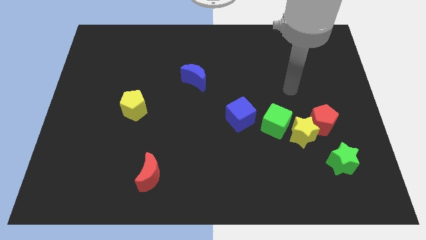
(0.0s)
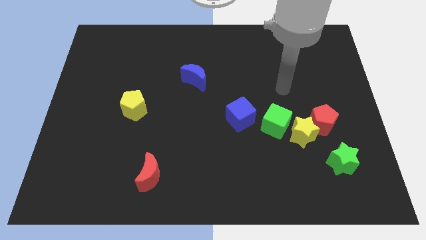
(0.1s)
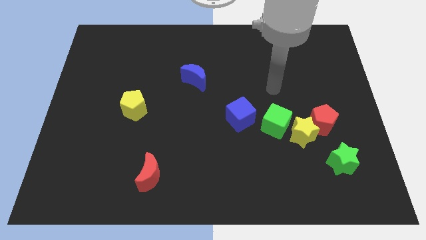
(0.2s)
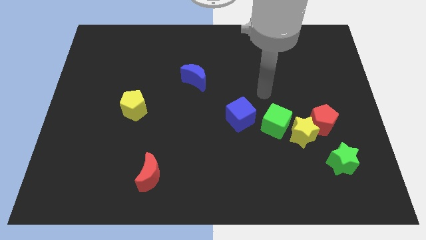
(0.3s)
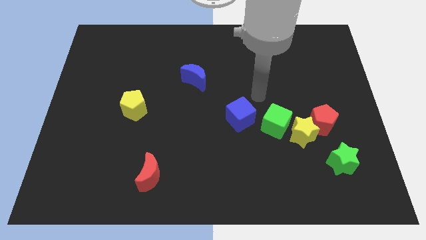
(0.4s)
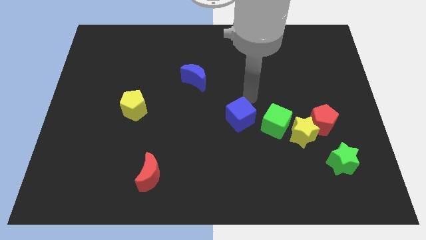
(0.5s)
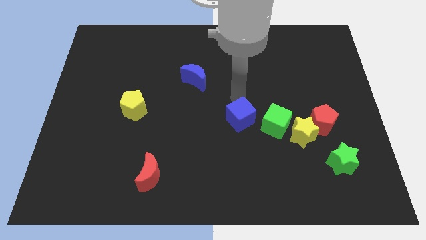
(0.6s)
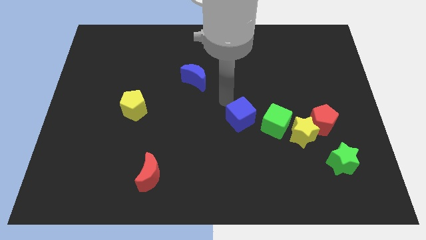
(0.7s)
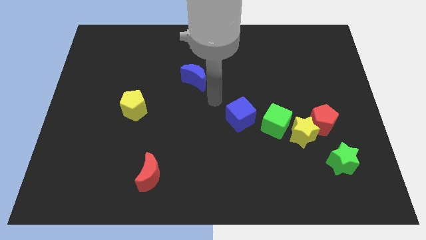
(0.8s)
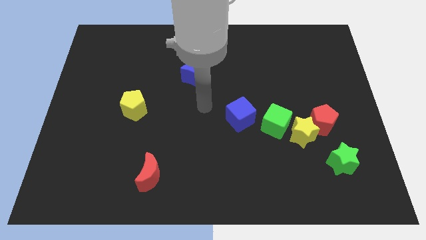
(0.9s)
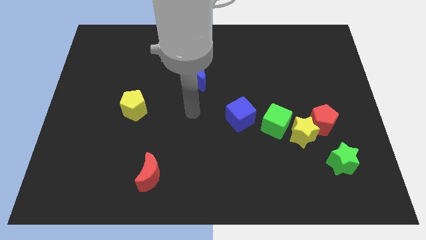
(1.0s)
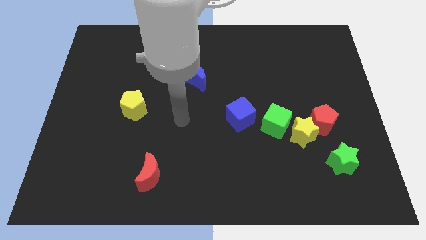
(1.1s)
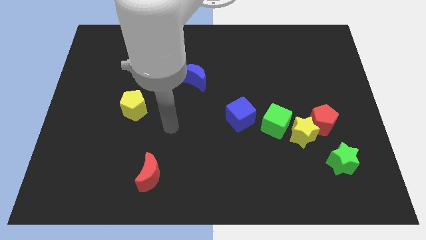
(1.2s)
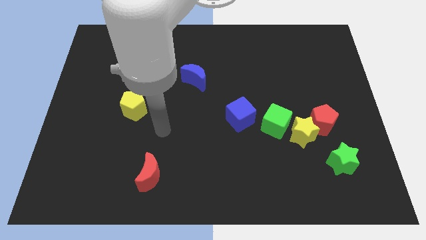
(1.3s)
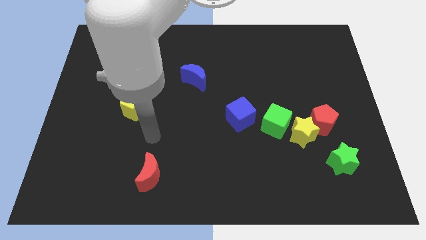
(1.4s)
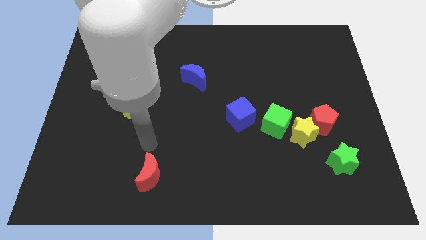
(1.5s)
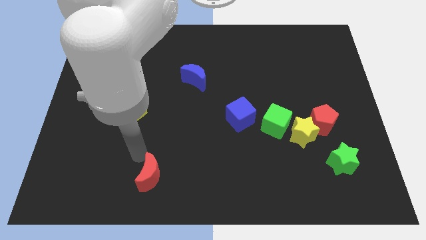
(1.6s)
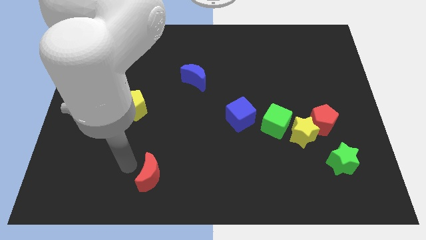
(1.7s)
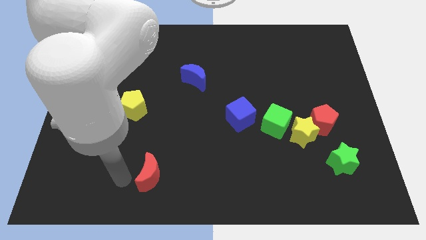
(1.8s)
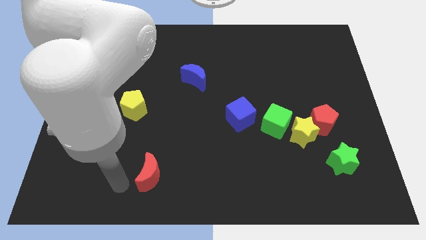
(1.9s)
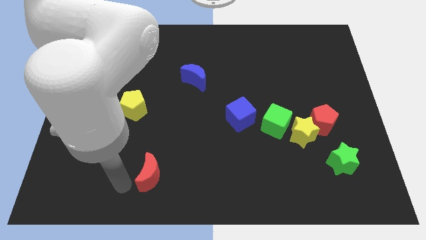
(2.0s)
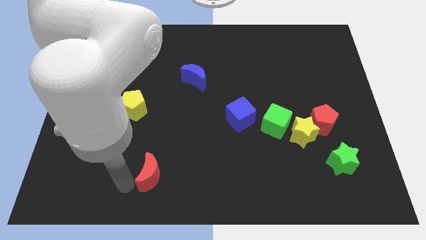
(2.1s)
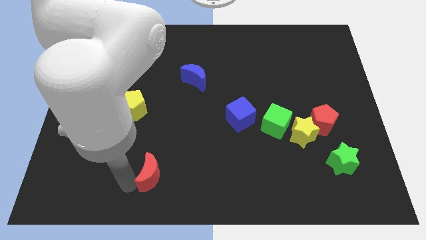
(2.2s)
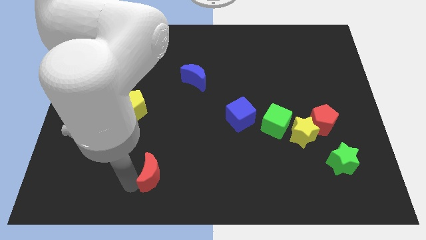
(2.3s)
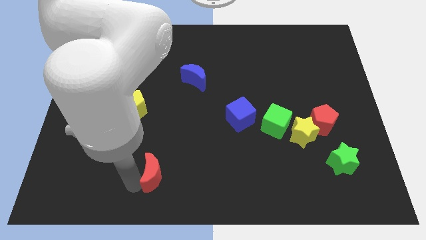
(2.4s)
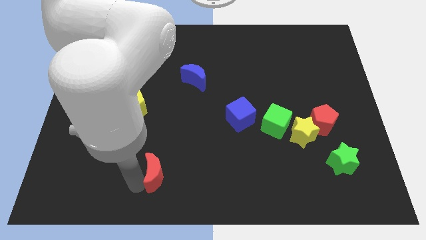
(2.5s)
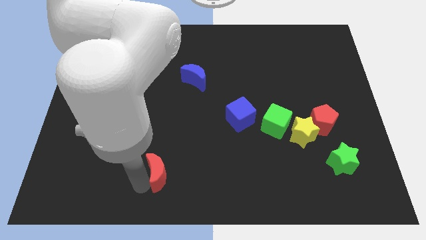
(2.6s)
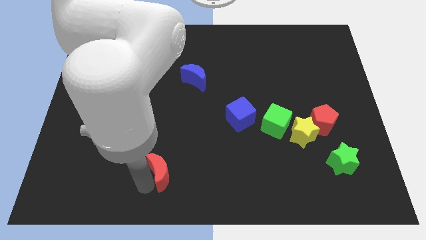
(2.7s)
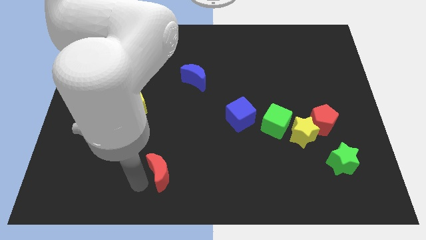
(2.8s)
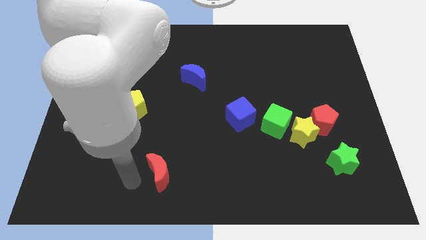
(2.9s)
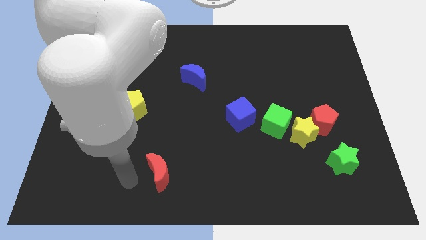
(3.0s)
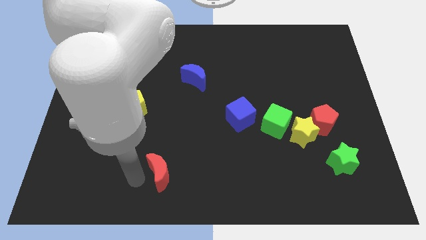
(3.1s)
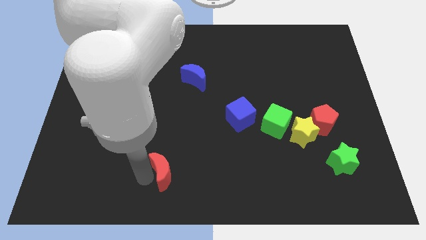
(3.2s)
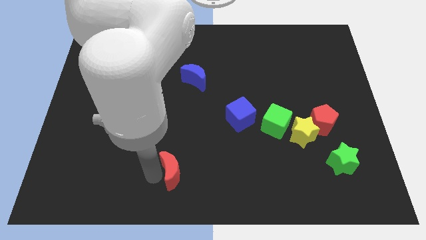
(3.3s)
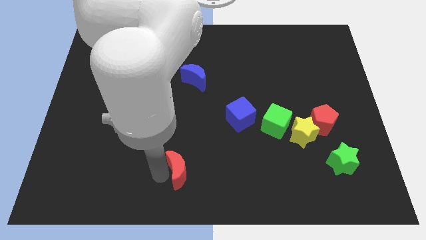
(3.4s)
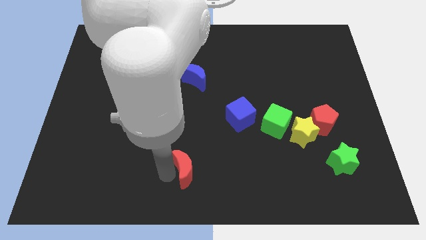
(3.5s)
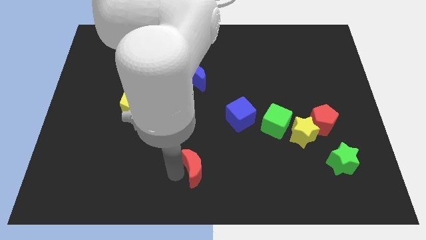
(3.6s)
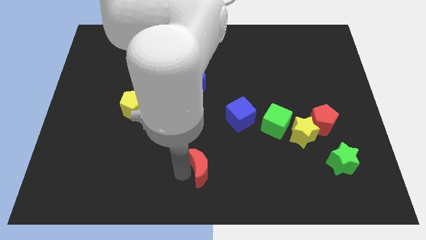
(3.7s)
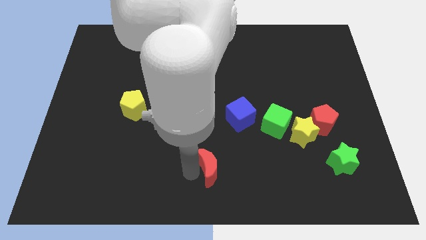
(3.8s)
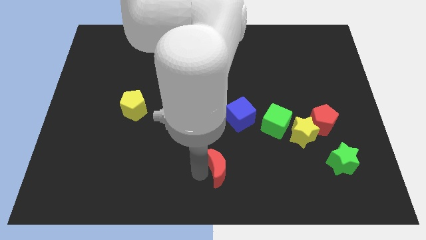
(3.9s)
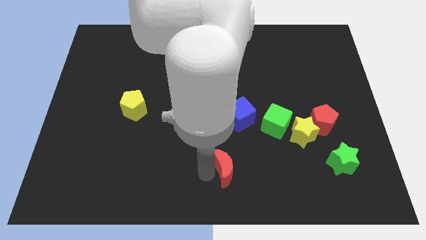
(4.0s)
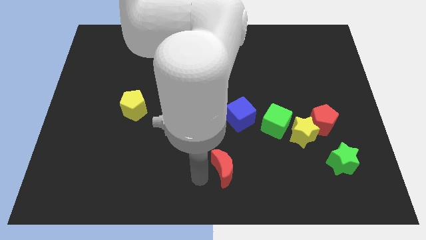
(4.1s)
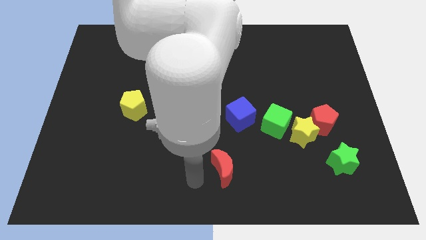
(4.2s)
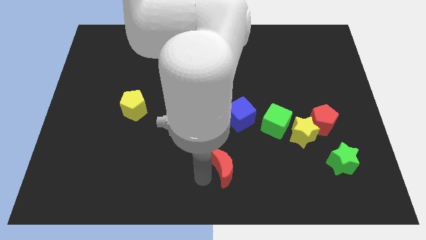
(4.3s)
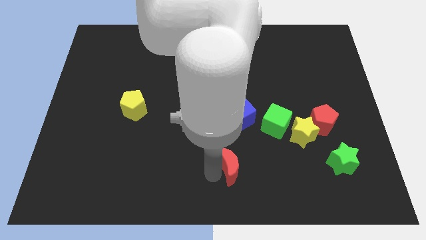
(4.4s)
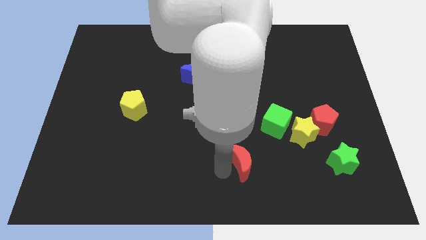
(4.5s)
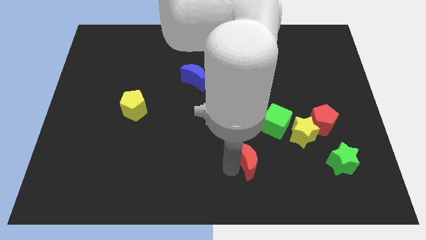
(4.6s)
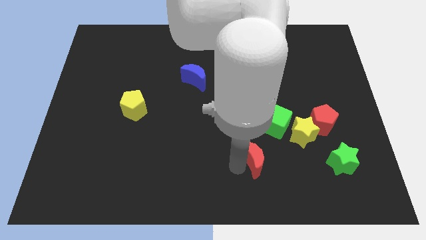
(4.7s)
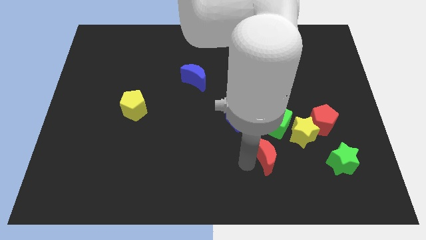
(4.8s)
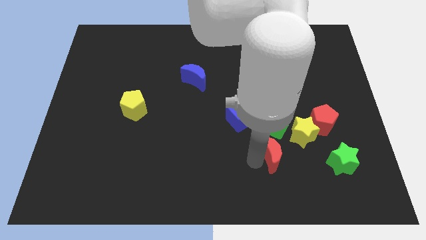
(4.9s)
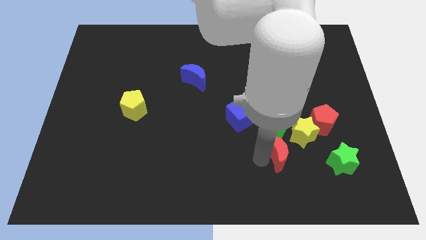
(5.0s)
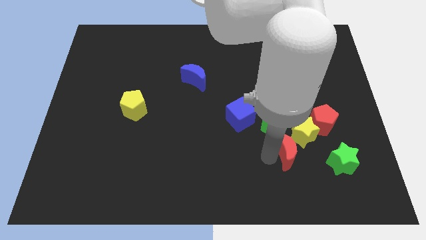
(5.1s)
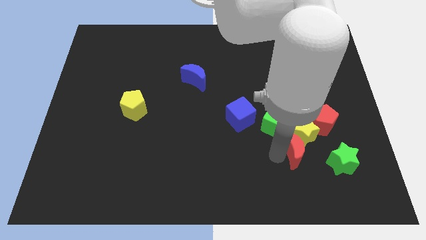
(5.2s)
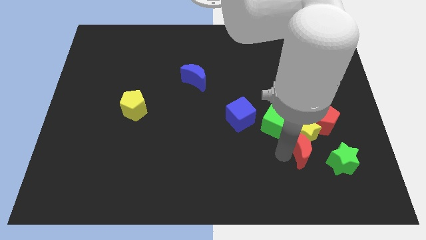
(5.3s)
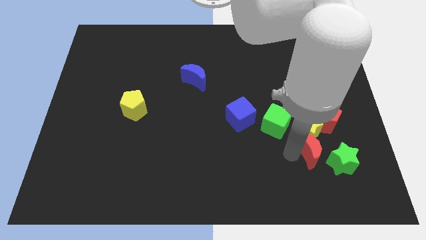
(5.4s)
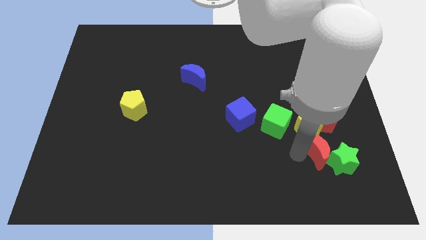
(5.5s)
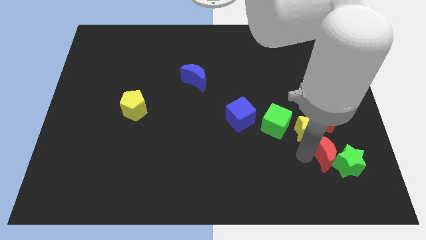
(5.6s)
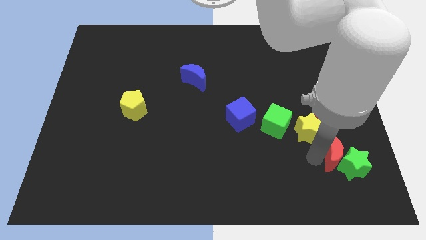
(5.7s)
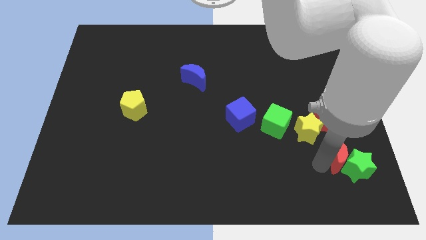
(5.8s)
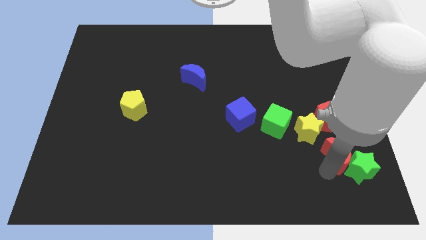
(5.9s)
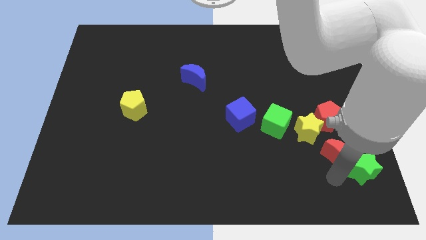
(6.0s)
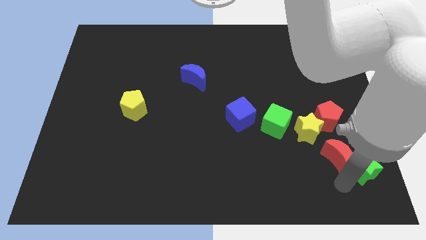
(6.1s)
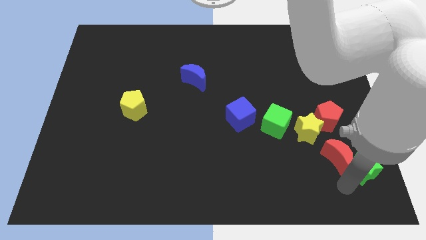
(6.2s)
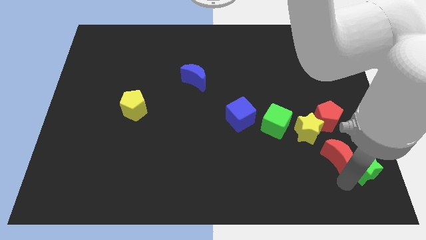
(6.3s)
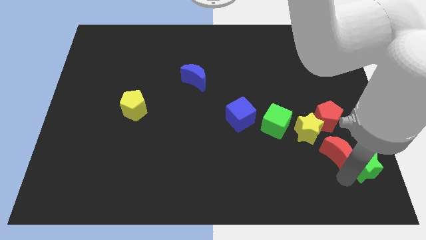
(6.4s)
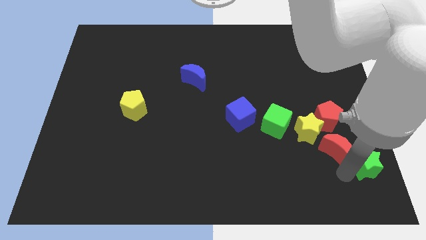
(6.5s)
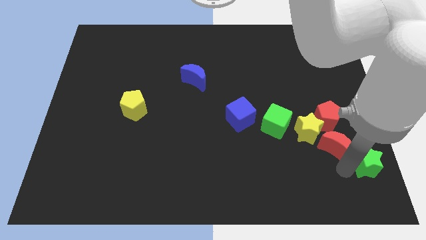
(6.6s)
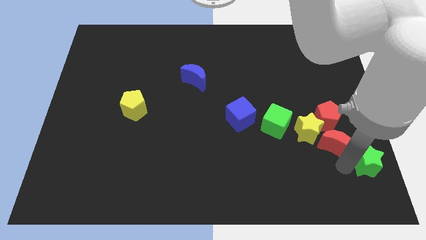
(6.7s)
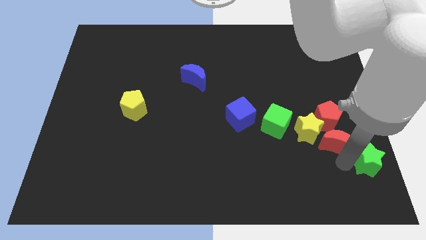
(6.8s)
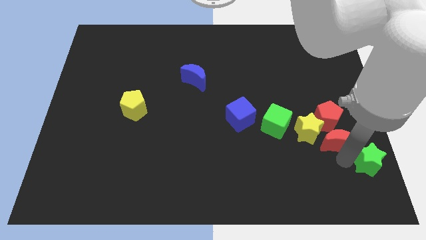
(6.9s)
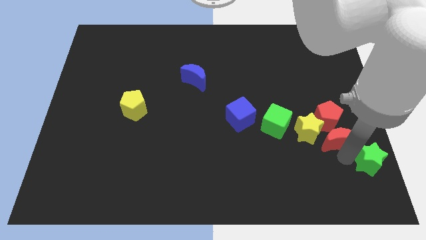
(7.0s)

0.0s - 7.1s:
put the red moon close to the red pentagon

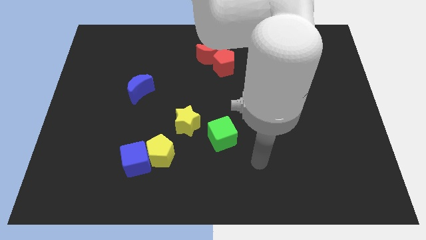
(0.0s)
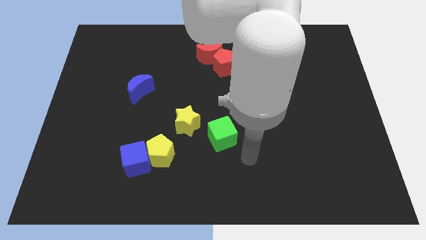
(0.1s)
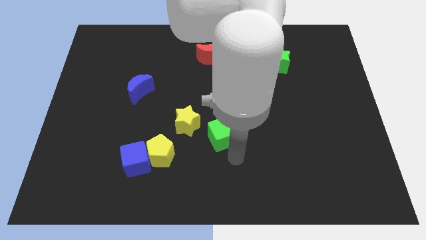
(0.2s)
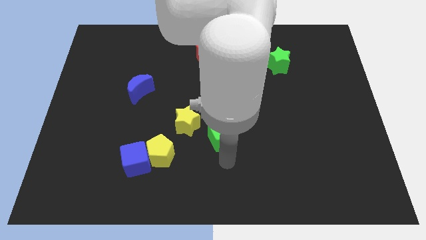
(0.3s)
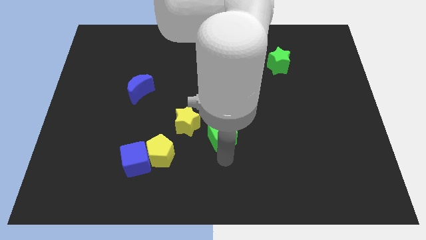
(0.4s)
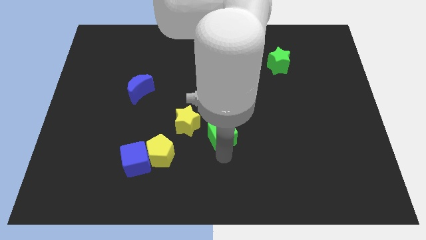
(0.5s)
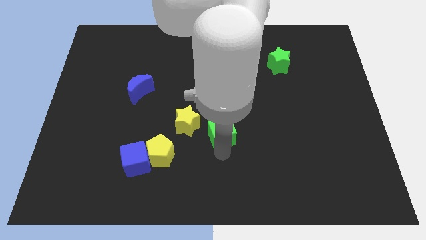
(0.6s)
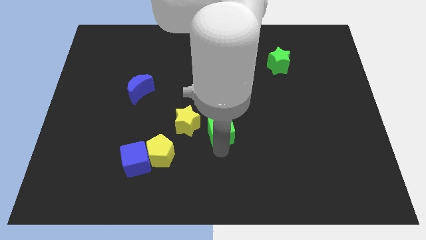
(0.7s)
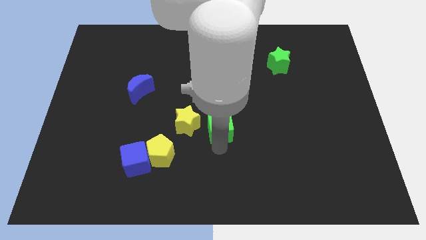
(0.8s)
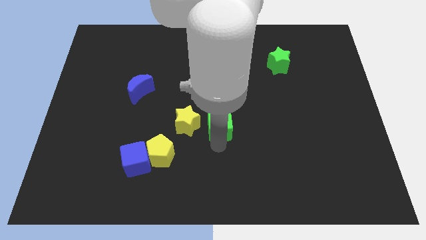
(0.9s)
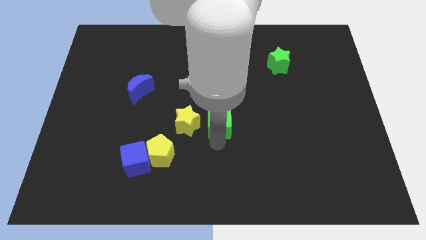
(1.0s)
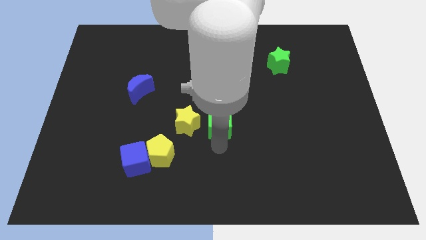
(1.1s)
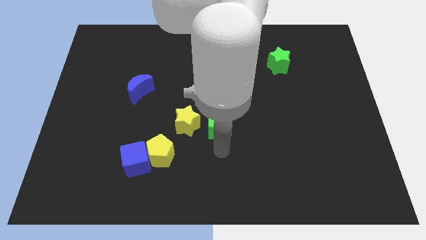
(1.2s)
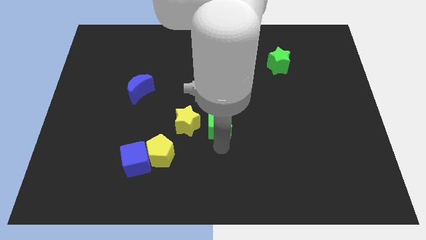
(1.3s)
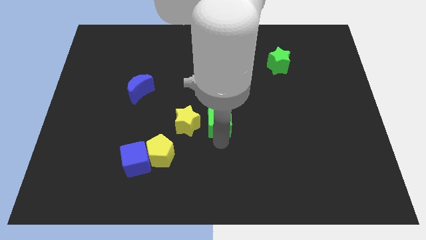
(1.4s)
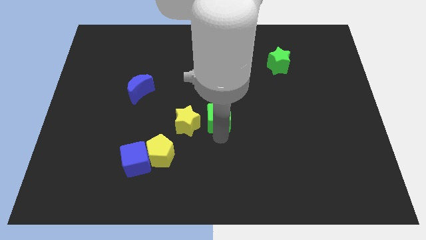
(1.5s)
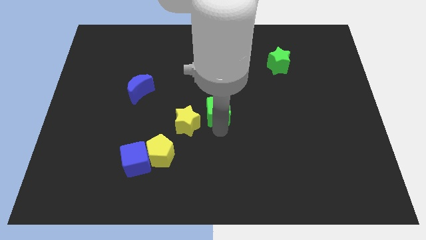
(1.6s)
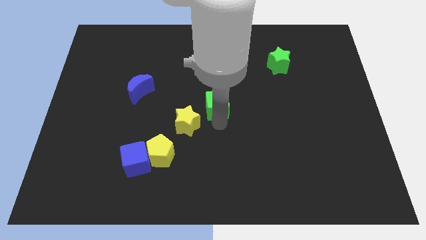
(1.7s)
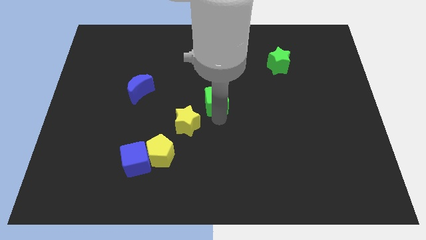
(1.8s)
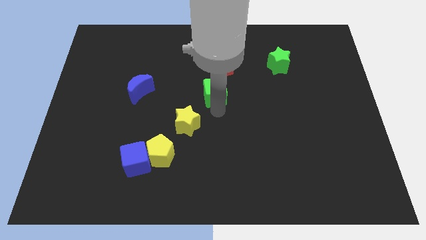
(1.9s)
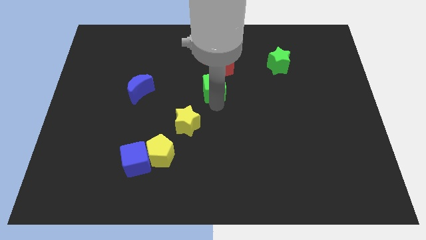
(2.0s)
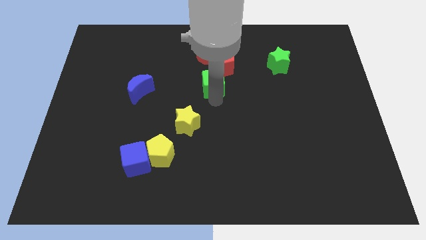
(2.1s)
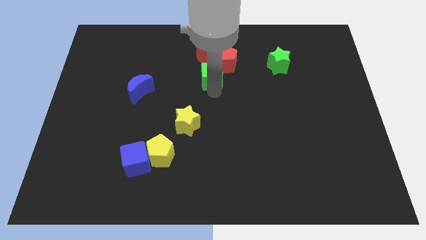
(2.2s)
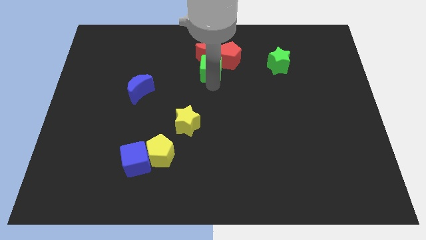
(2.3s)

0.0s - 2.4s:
put the green cube to the red moon
